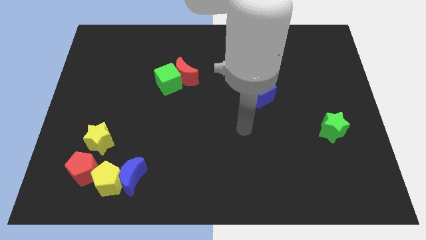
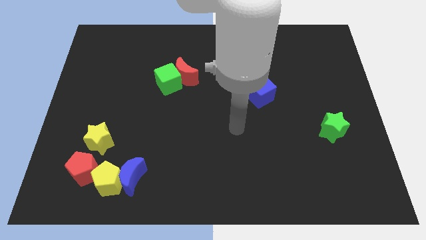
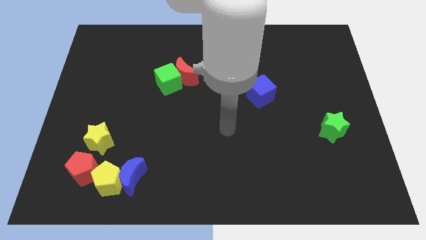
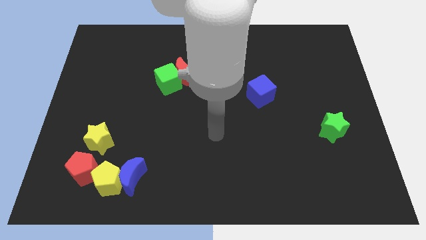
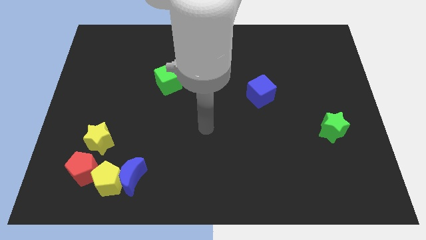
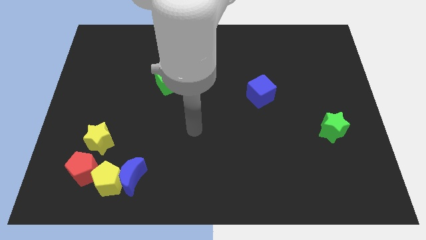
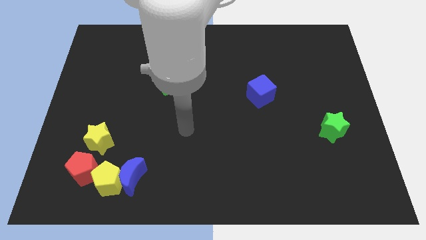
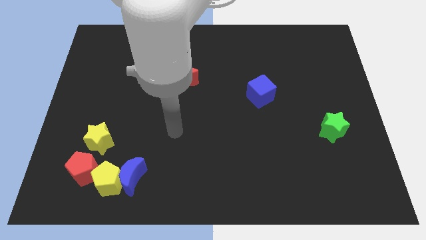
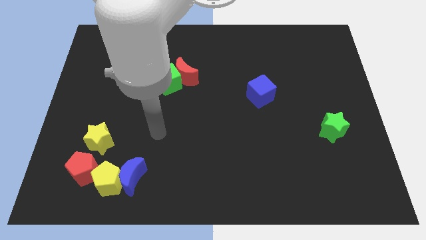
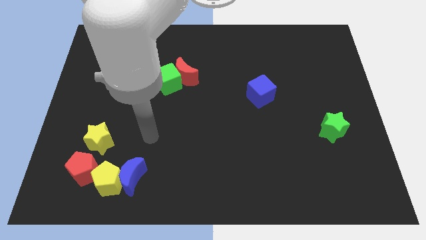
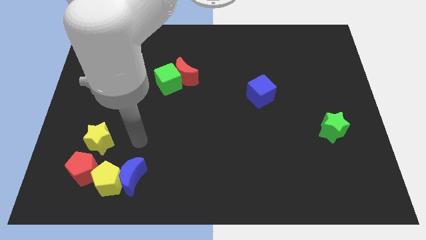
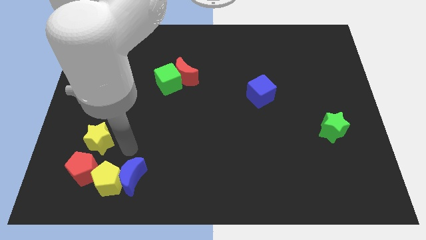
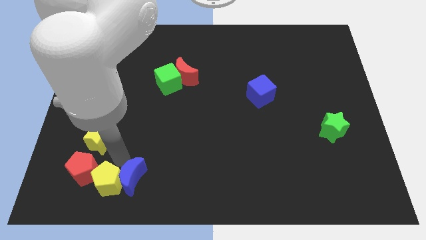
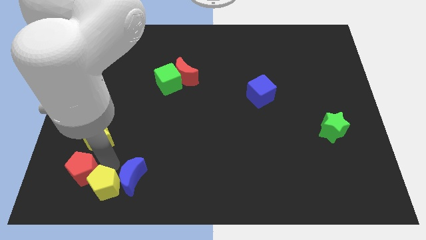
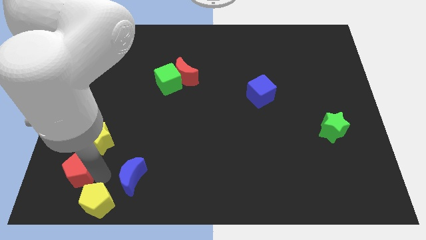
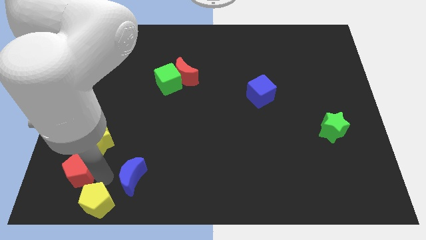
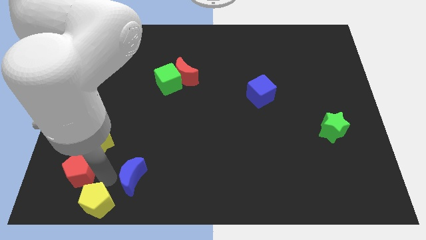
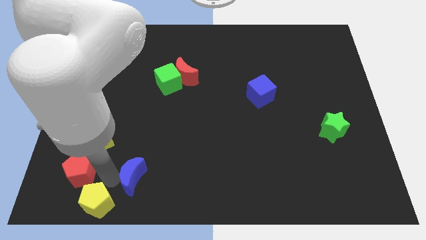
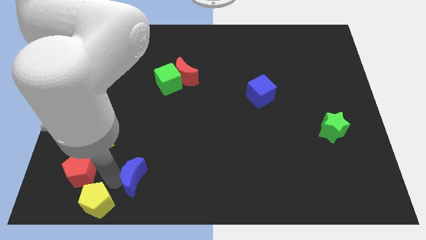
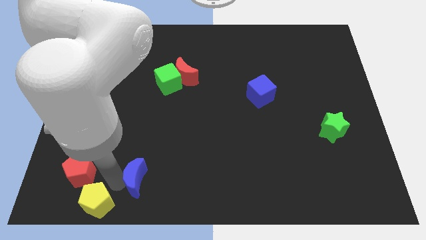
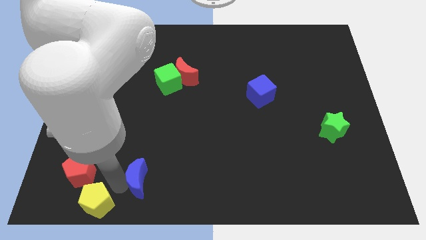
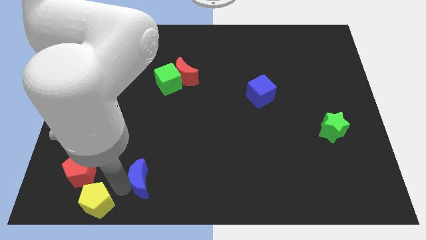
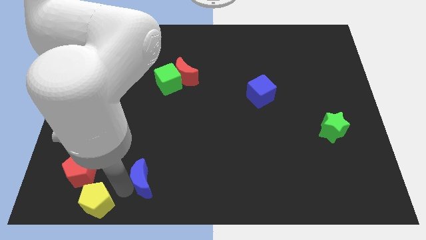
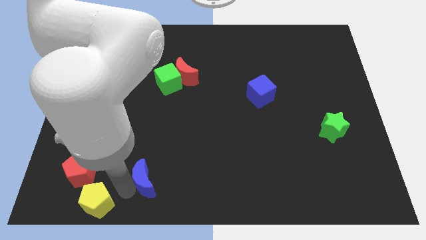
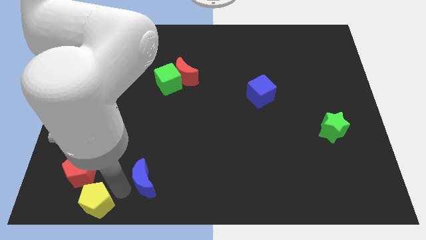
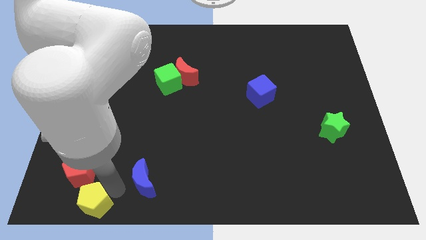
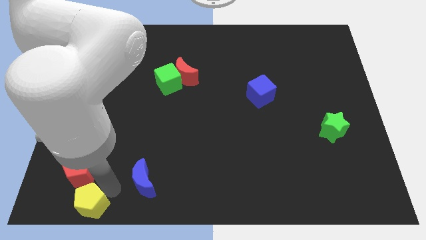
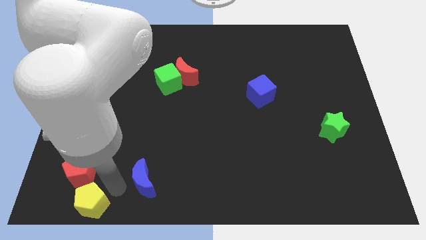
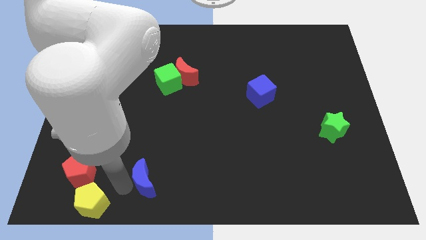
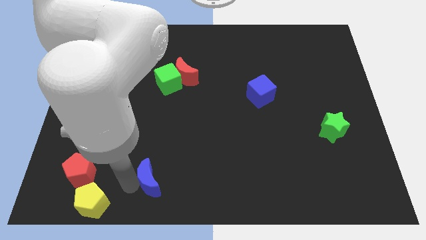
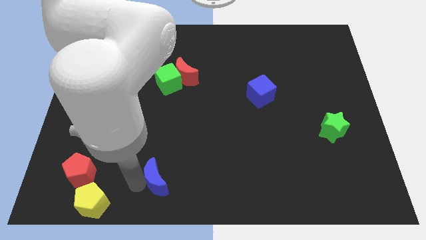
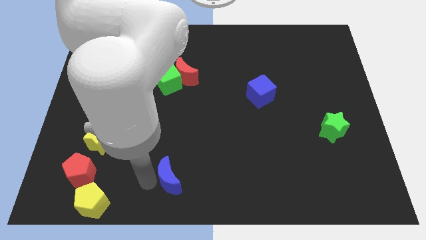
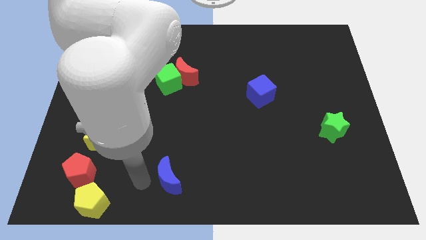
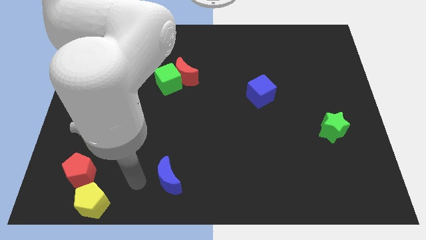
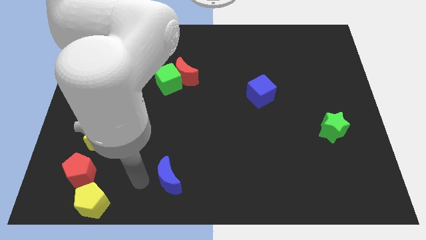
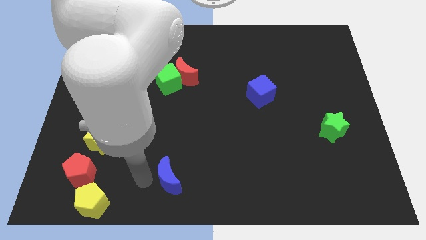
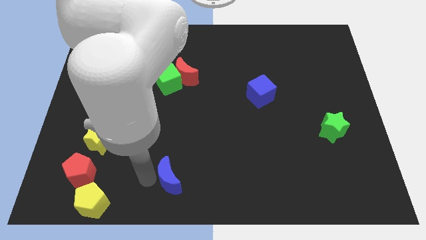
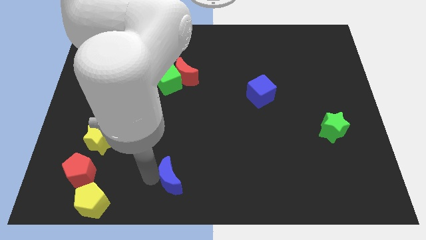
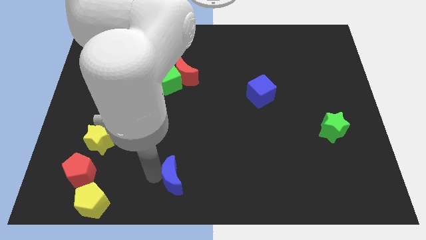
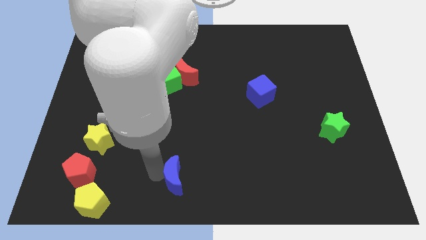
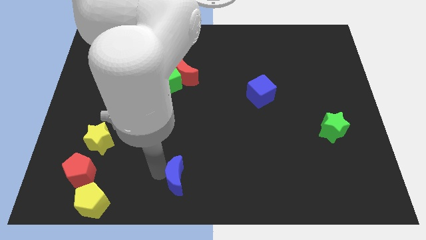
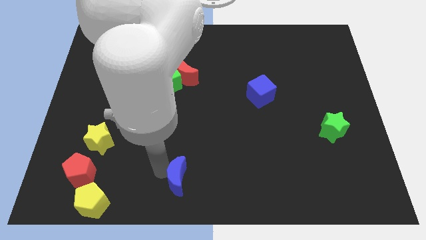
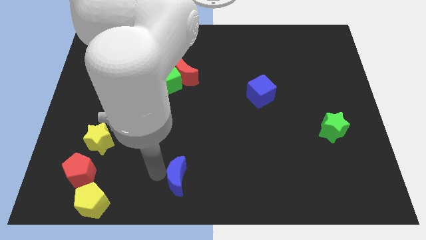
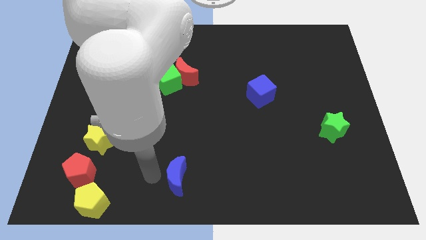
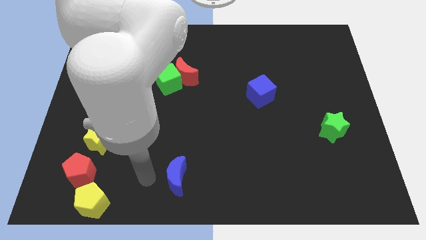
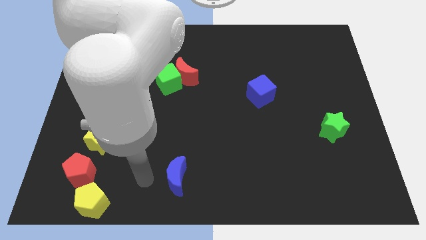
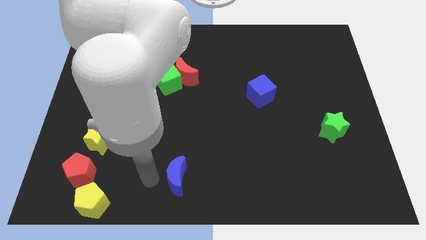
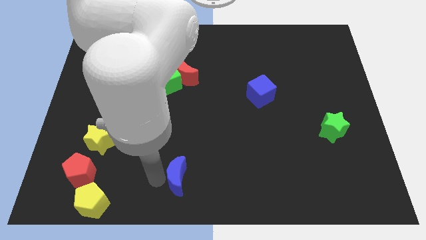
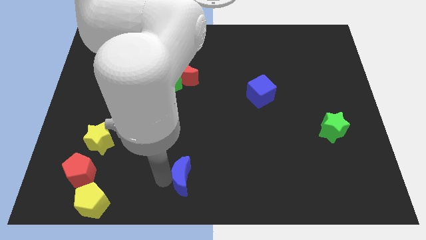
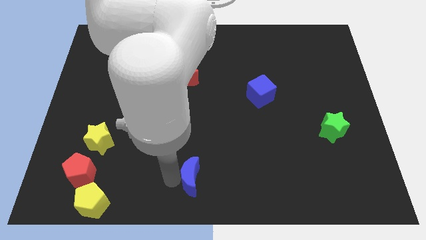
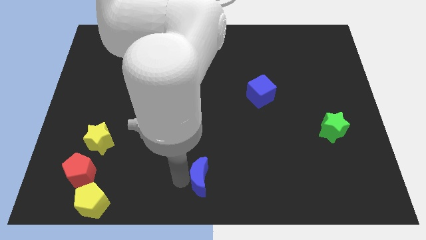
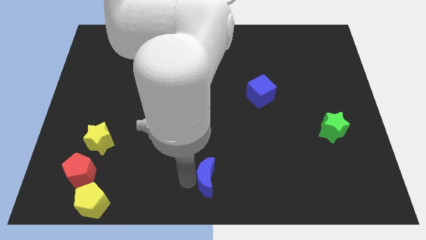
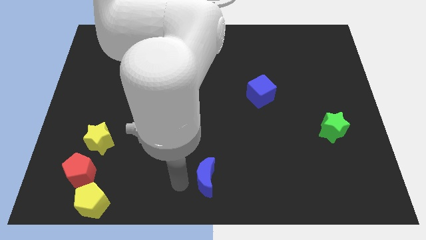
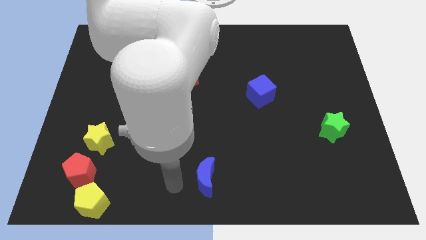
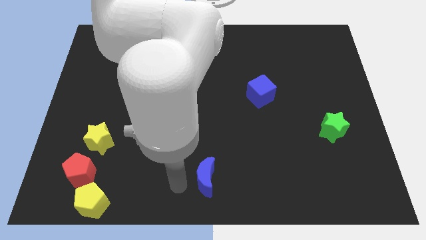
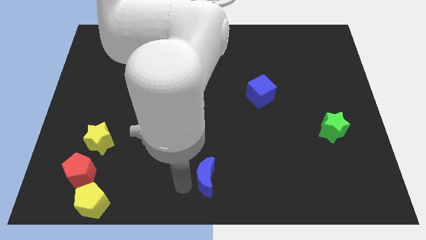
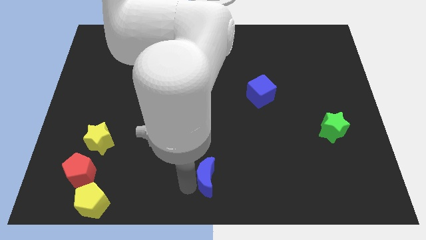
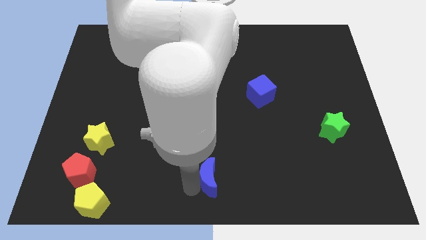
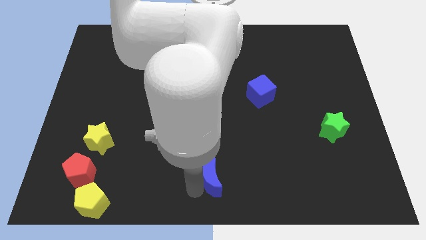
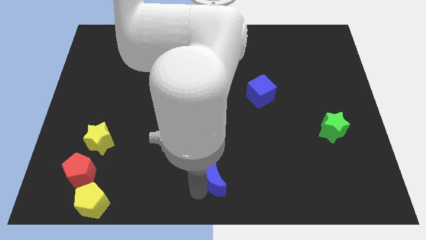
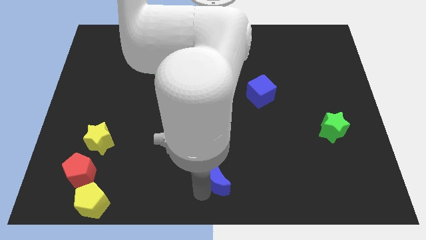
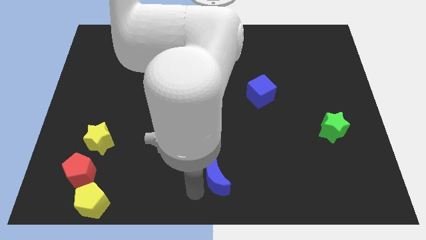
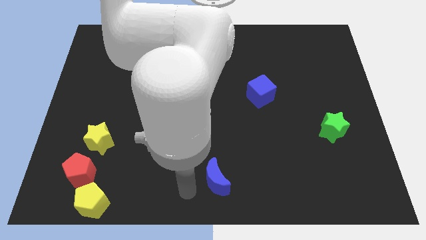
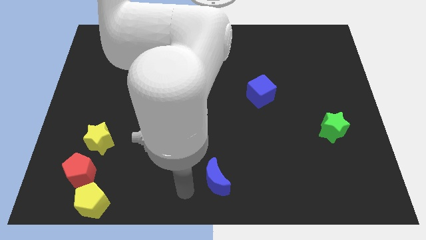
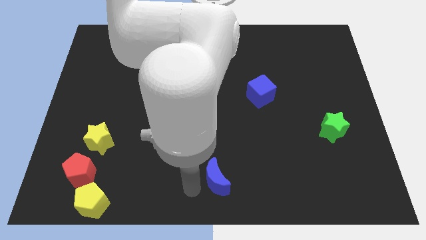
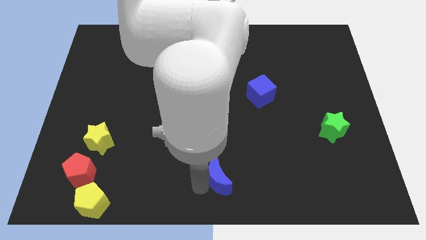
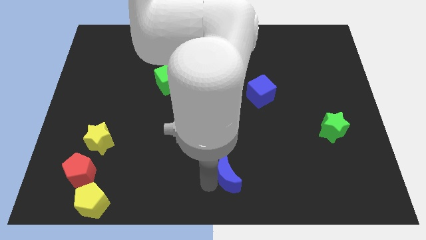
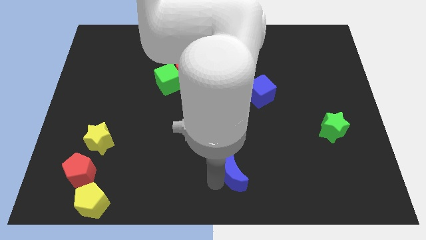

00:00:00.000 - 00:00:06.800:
move the blue moon right

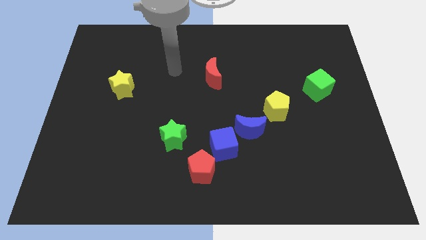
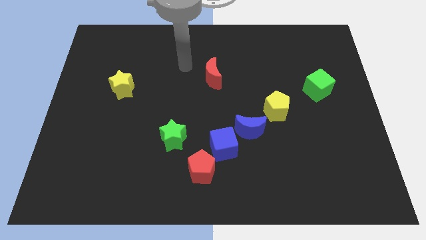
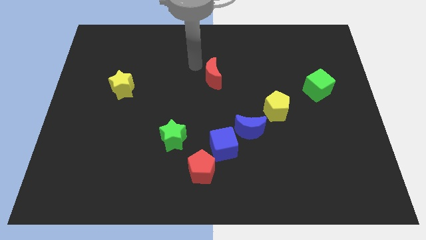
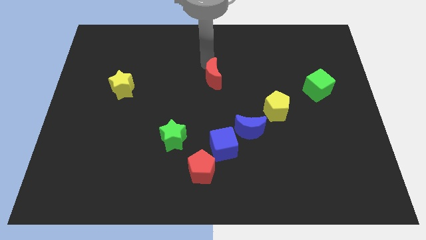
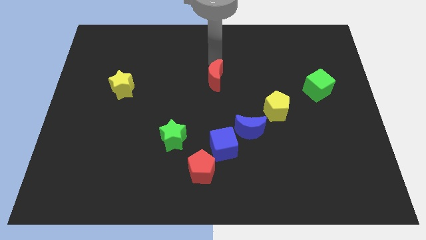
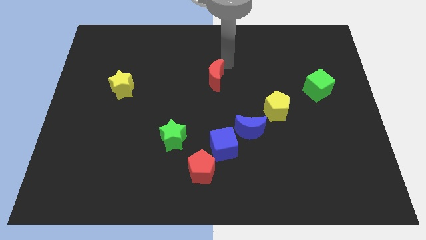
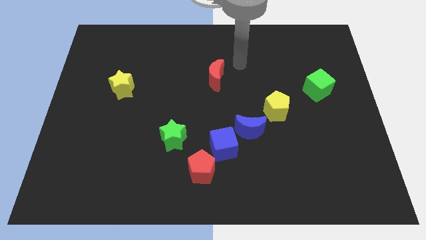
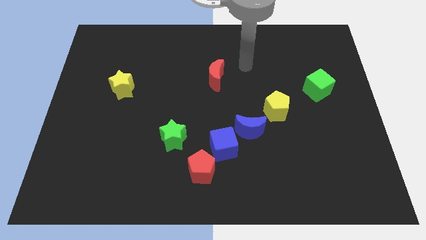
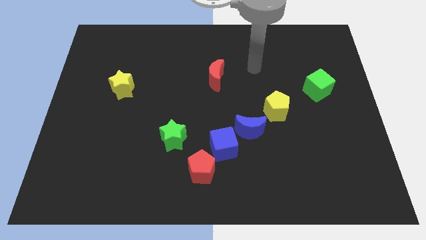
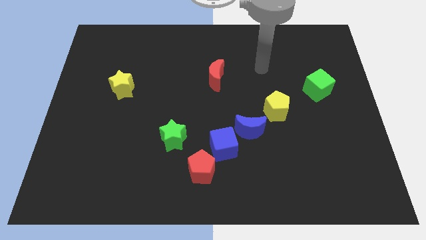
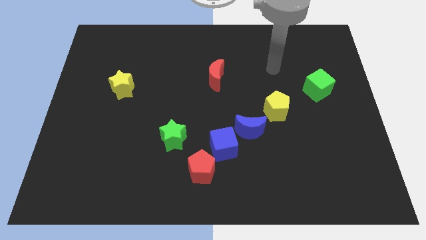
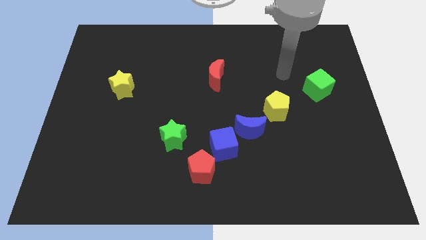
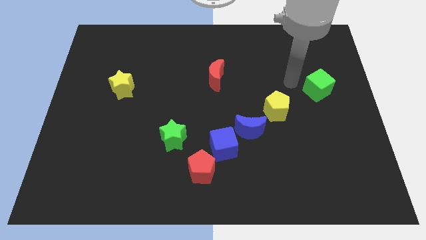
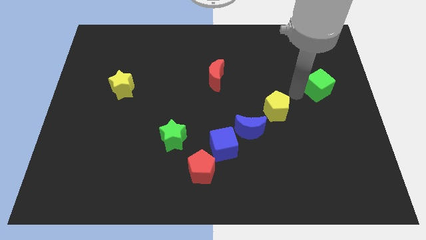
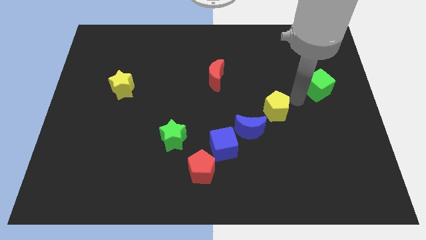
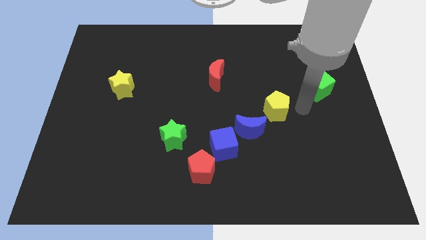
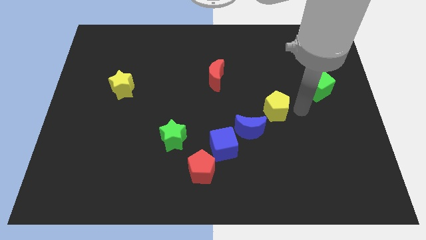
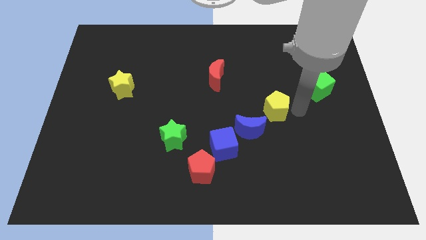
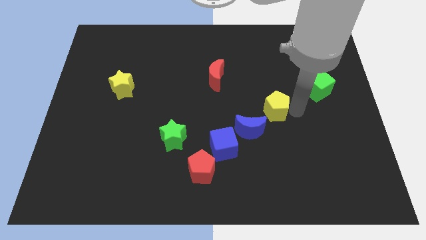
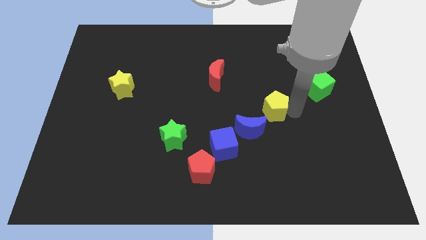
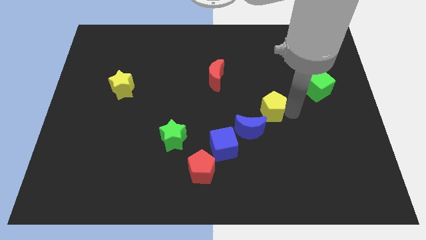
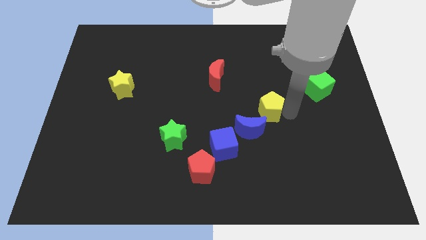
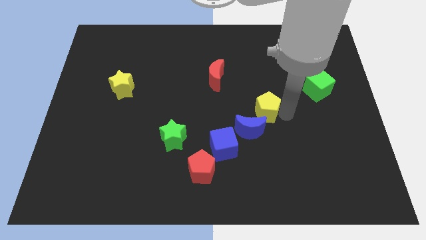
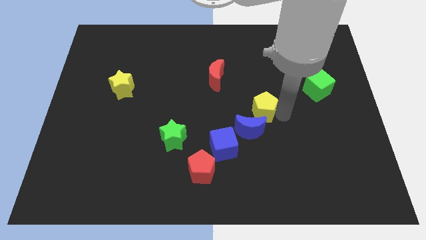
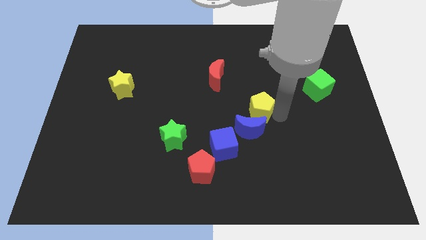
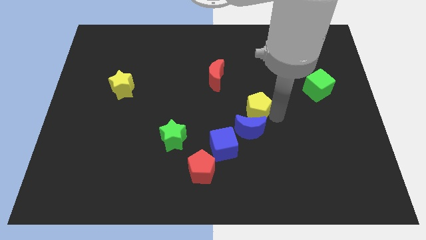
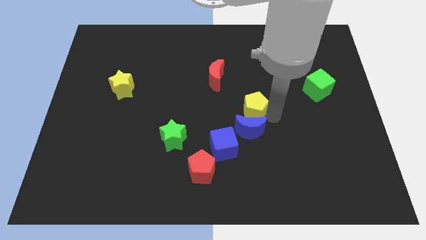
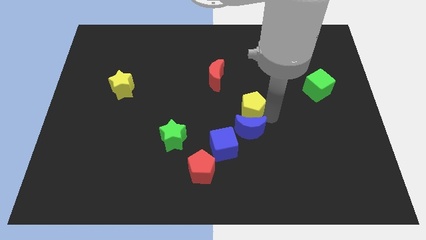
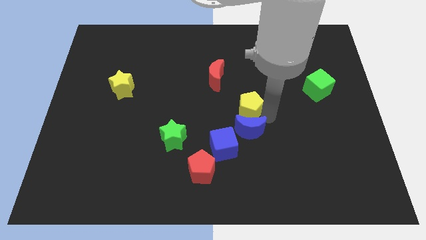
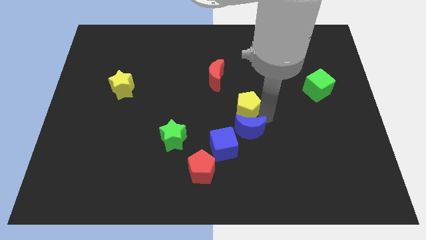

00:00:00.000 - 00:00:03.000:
slightly push the yellow pentagon left
